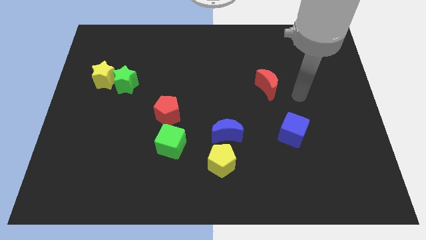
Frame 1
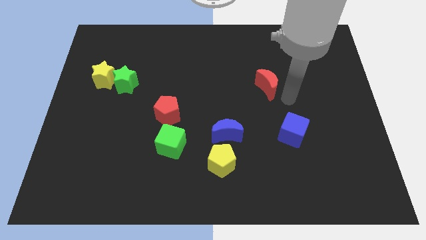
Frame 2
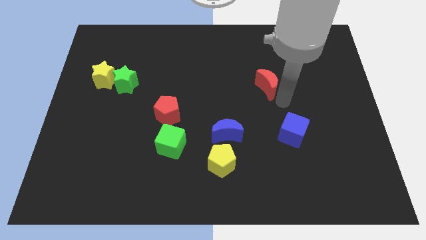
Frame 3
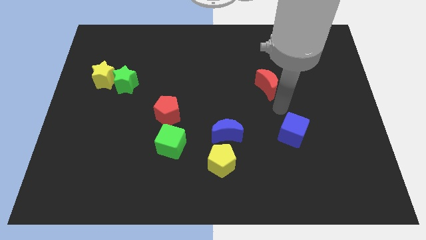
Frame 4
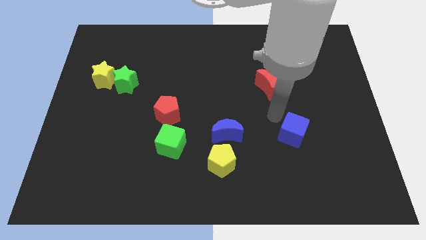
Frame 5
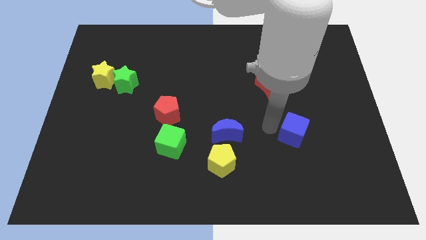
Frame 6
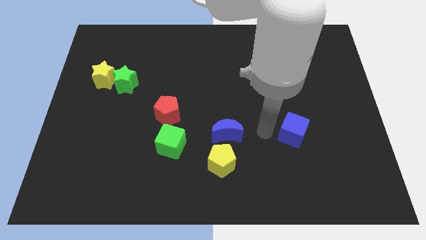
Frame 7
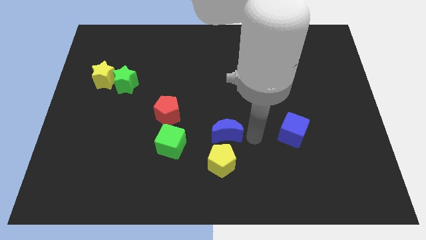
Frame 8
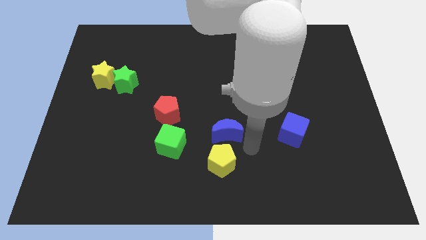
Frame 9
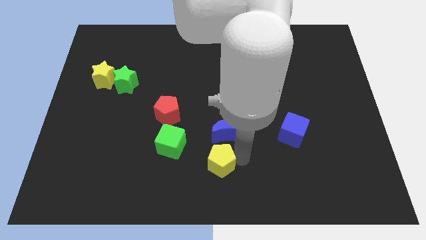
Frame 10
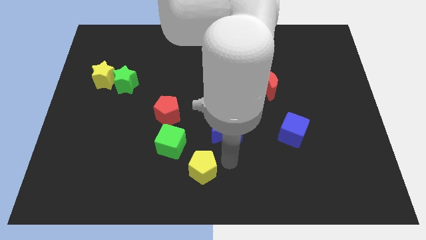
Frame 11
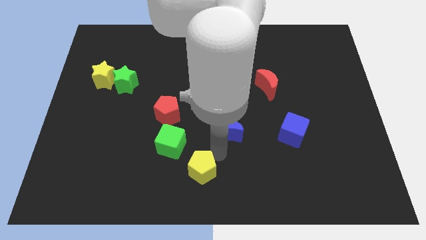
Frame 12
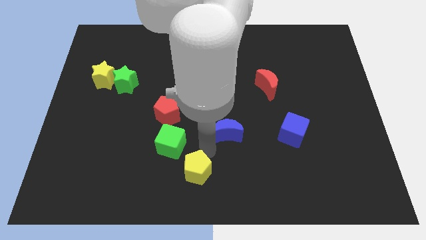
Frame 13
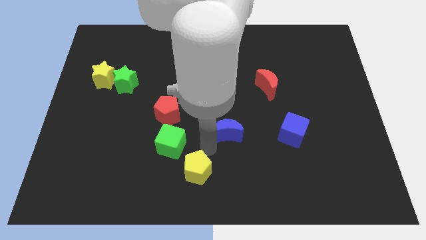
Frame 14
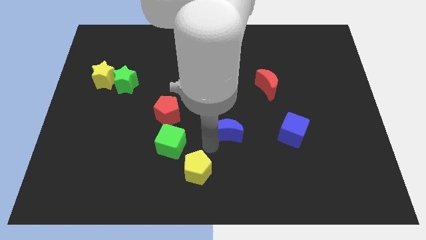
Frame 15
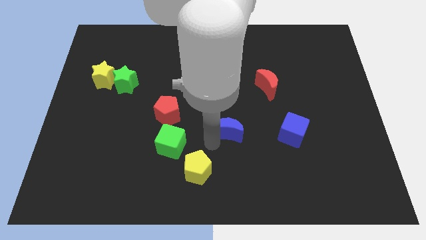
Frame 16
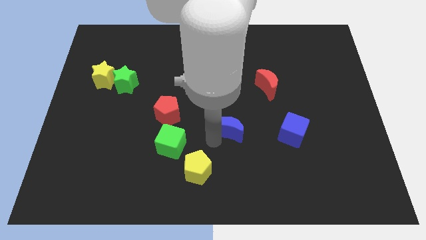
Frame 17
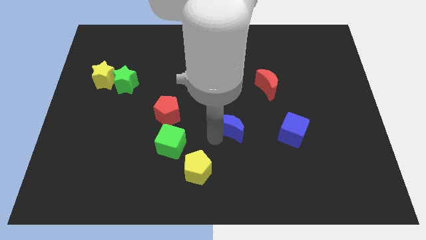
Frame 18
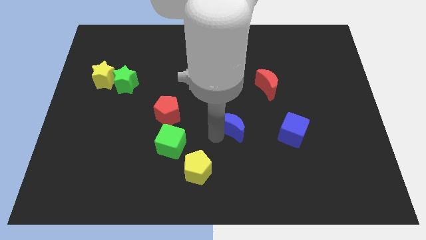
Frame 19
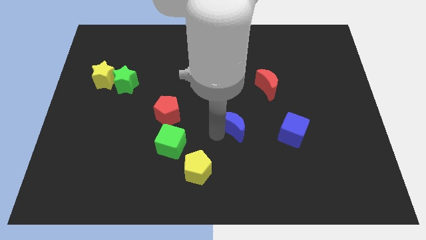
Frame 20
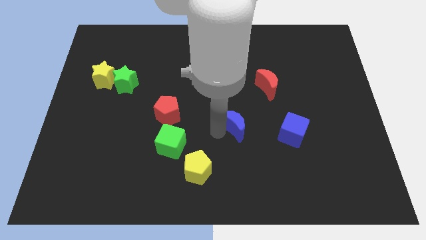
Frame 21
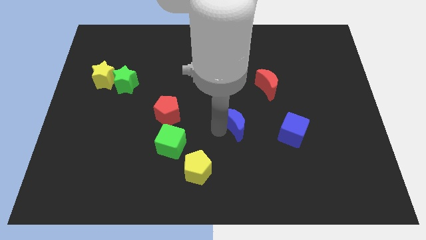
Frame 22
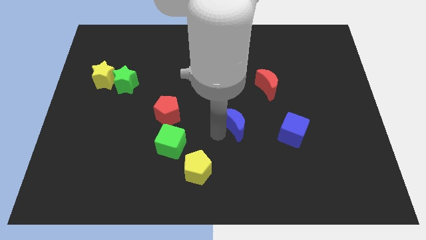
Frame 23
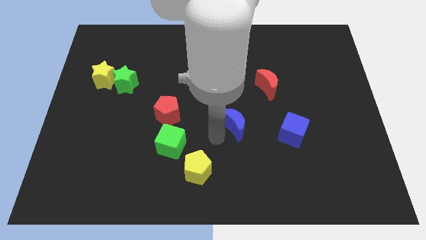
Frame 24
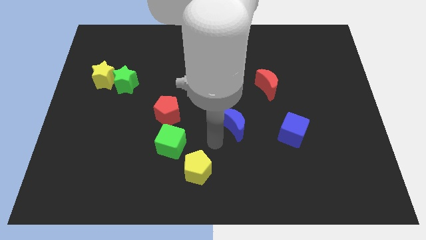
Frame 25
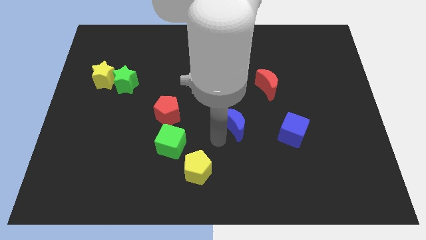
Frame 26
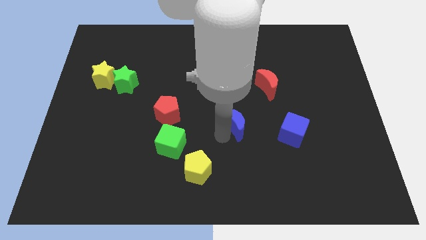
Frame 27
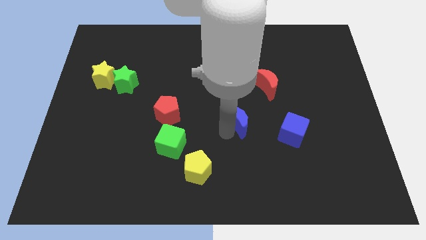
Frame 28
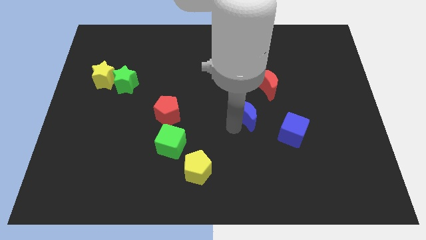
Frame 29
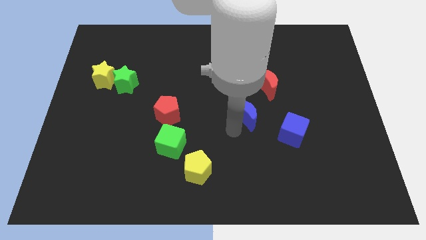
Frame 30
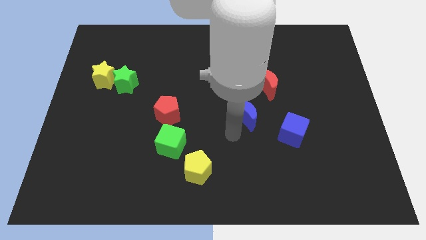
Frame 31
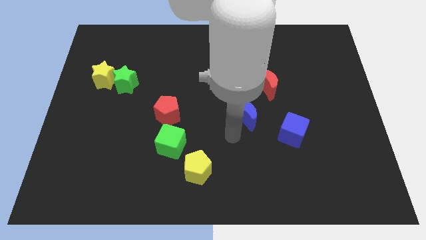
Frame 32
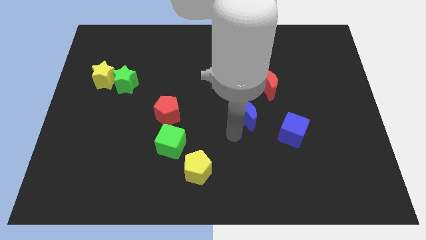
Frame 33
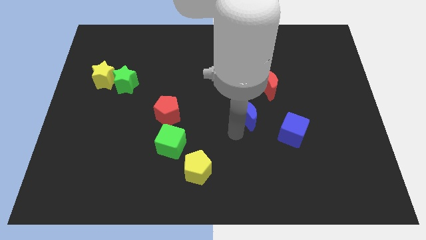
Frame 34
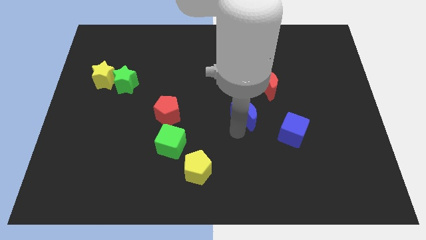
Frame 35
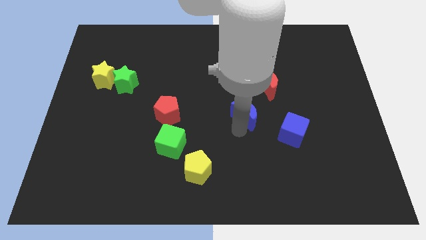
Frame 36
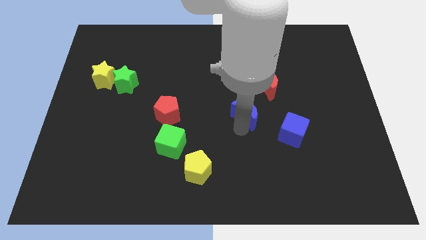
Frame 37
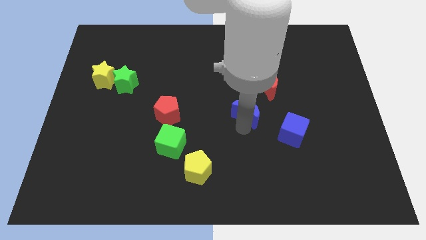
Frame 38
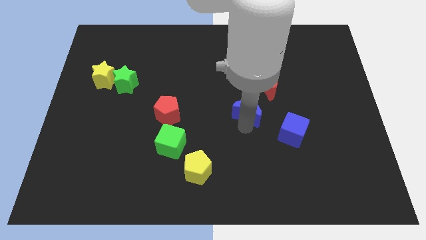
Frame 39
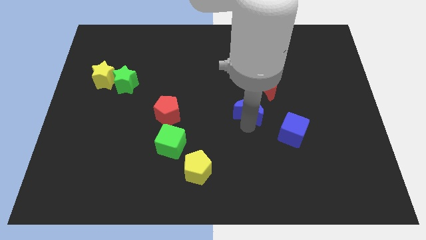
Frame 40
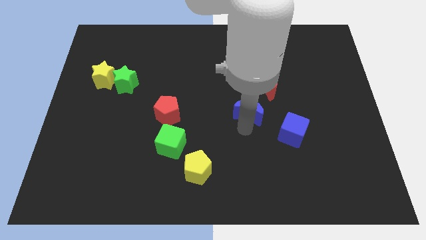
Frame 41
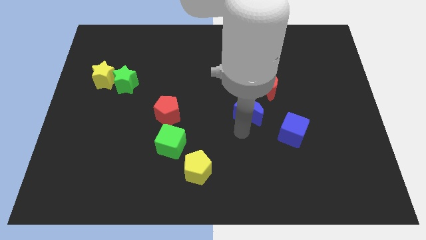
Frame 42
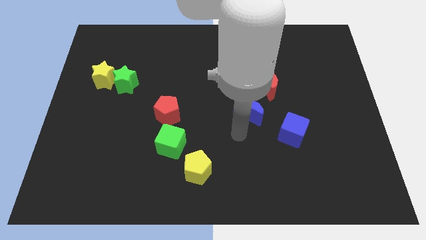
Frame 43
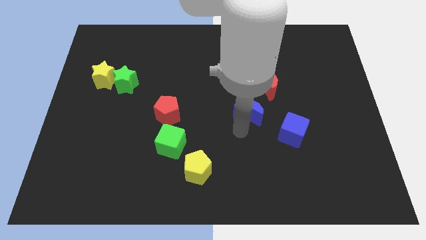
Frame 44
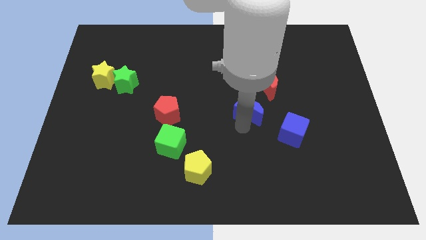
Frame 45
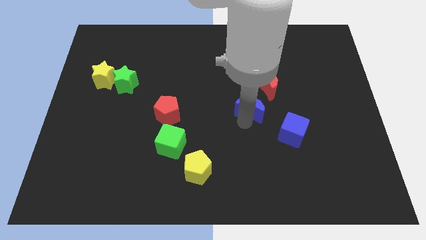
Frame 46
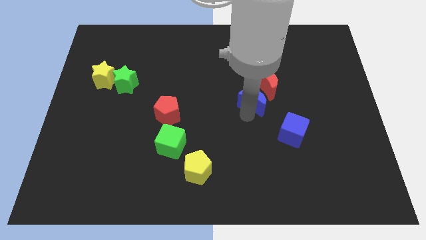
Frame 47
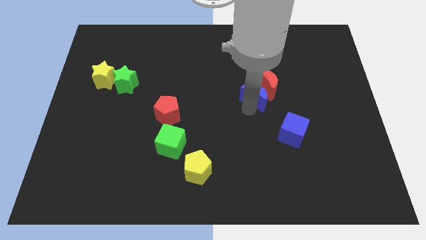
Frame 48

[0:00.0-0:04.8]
slide the blue moon close to the red moon

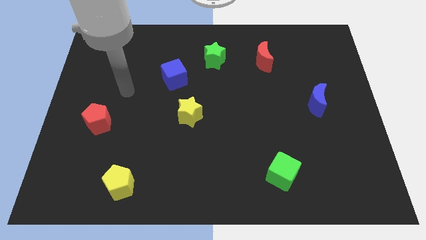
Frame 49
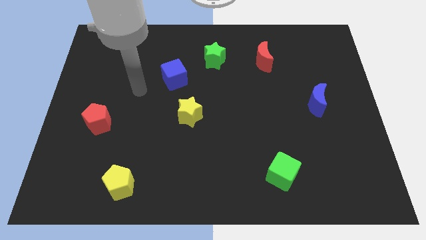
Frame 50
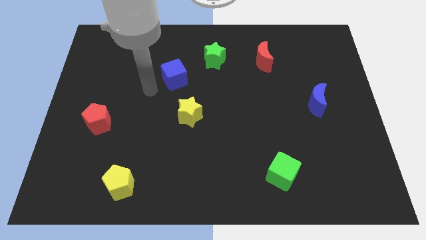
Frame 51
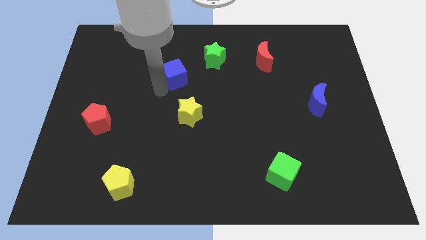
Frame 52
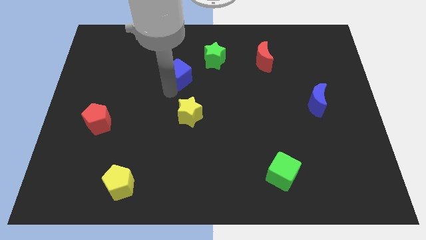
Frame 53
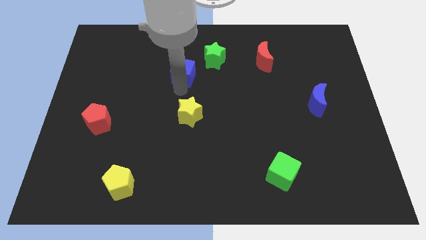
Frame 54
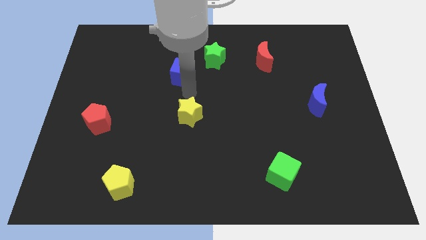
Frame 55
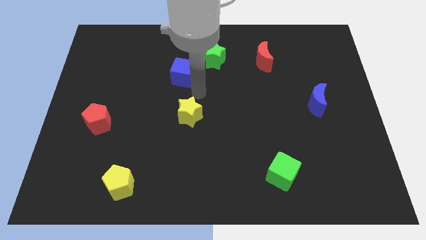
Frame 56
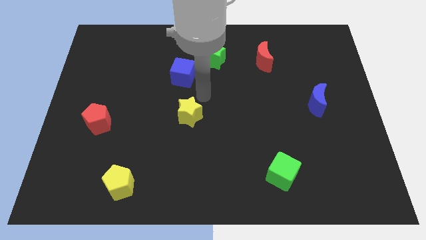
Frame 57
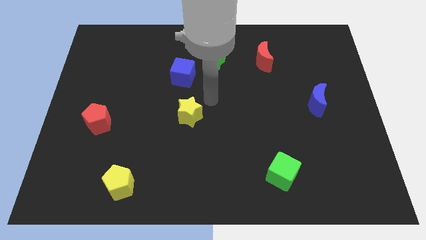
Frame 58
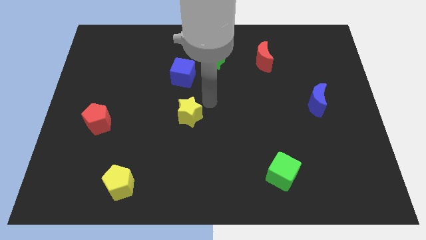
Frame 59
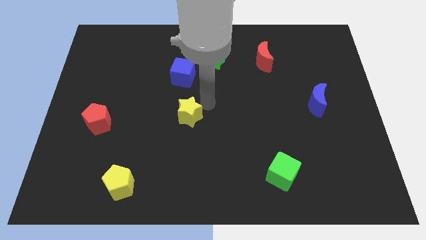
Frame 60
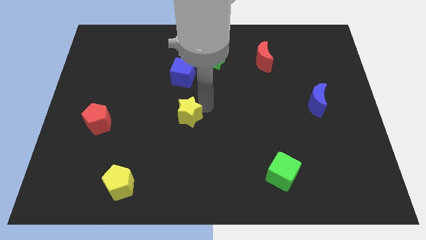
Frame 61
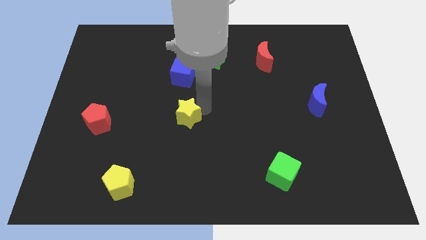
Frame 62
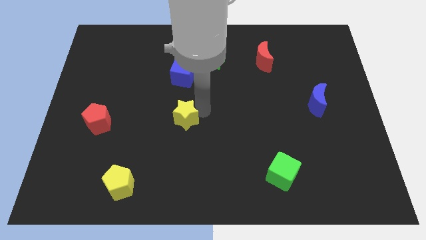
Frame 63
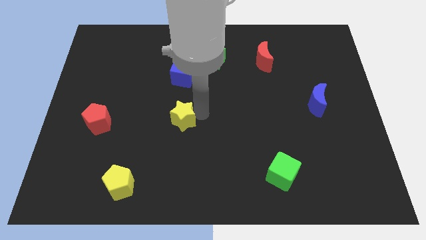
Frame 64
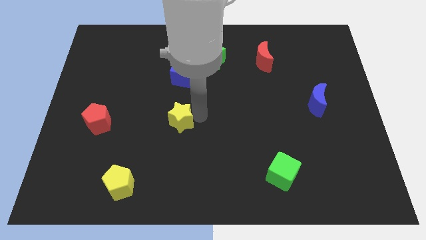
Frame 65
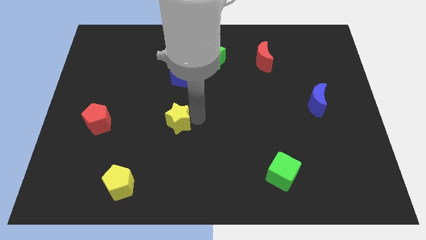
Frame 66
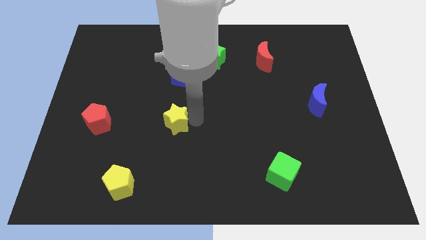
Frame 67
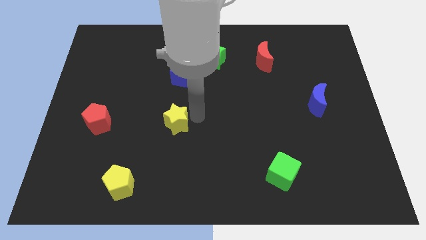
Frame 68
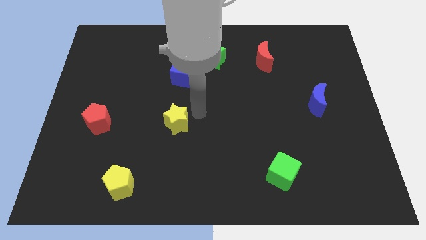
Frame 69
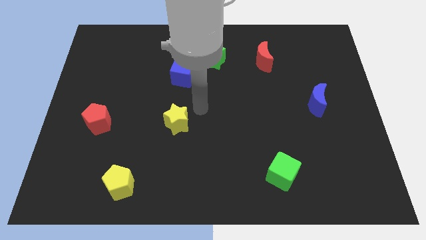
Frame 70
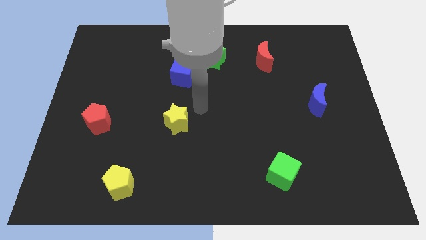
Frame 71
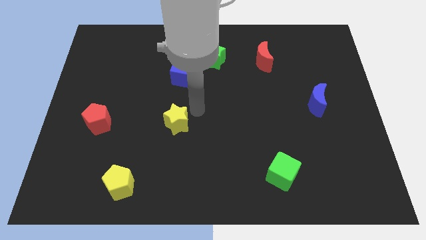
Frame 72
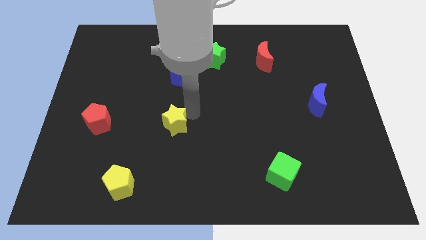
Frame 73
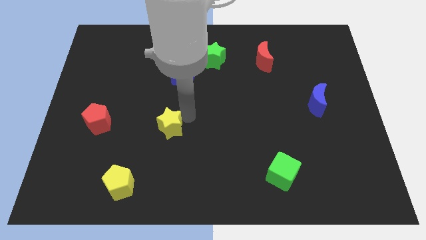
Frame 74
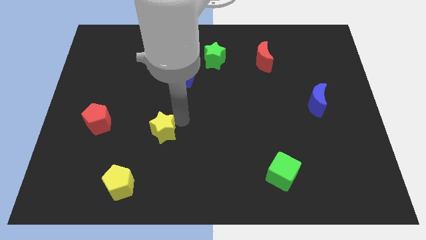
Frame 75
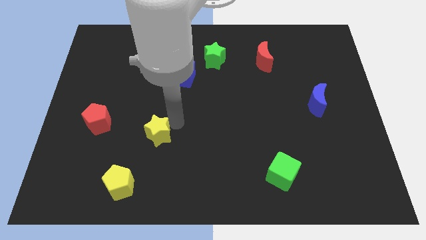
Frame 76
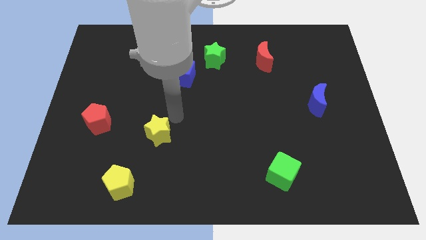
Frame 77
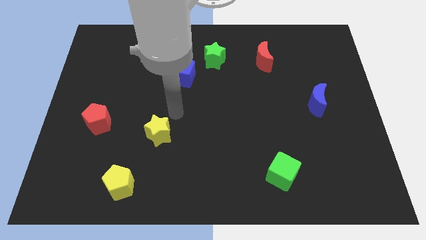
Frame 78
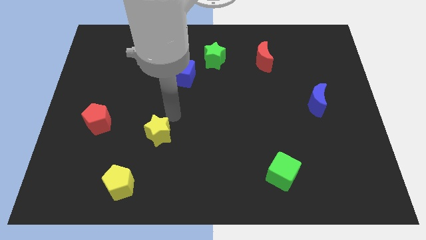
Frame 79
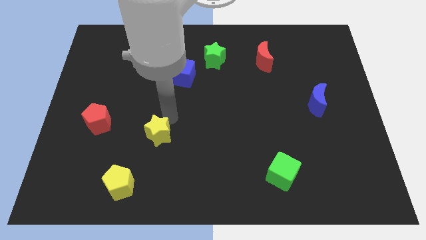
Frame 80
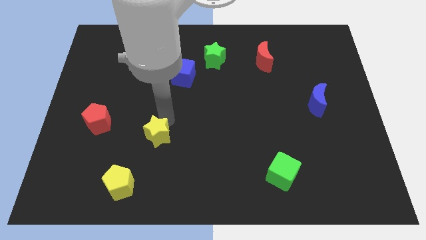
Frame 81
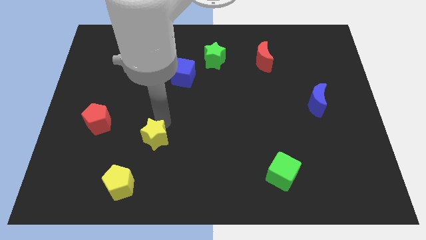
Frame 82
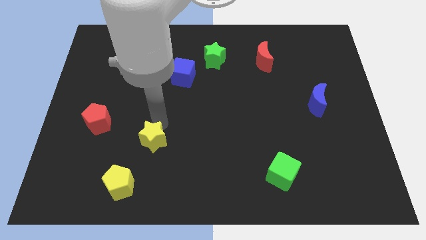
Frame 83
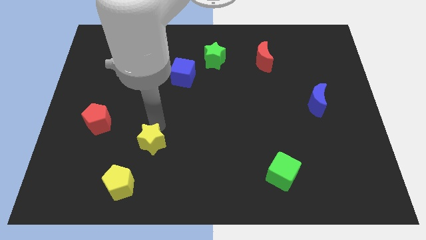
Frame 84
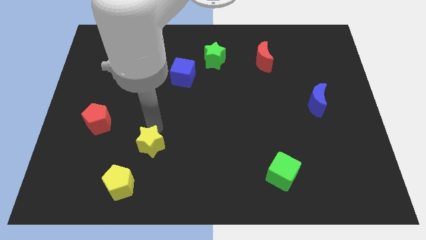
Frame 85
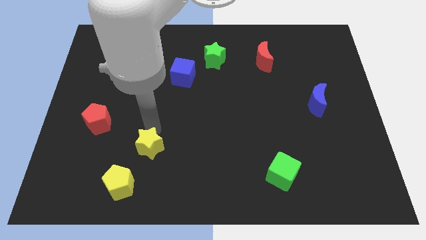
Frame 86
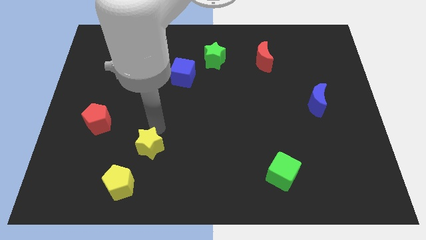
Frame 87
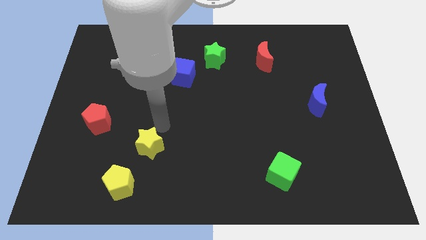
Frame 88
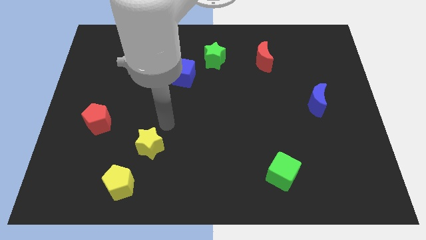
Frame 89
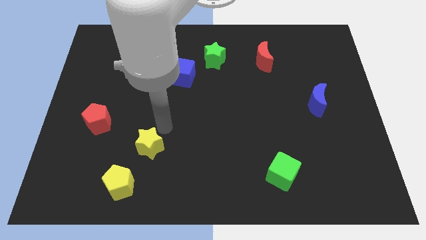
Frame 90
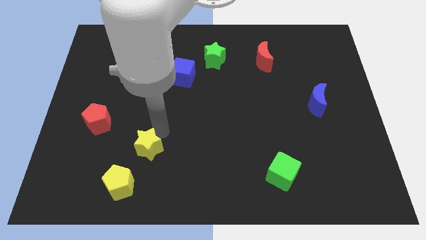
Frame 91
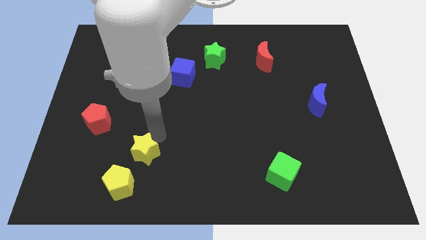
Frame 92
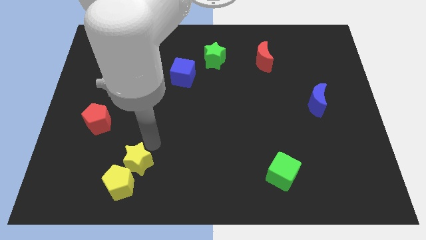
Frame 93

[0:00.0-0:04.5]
put the yellow star towards the yellow pentagon
